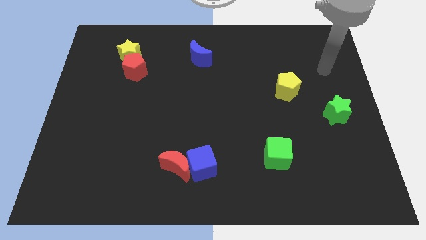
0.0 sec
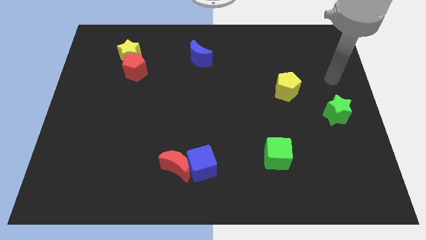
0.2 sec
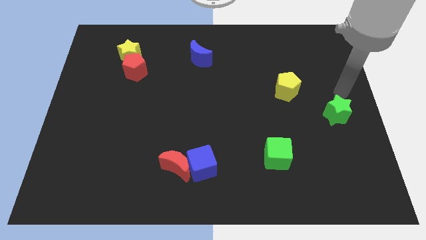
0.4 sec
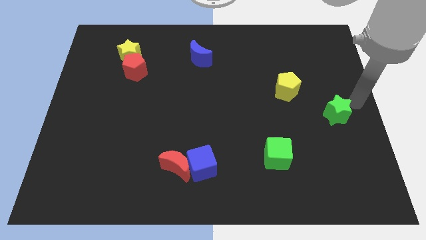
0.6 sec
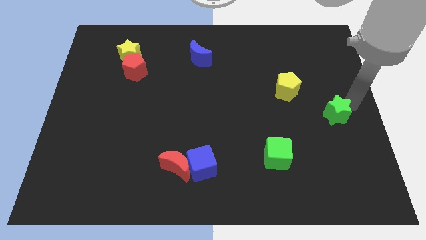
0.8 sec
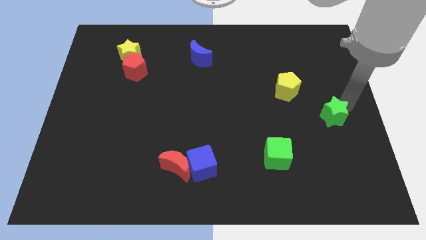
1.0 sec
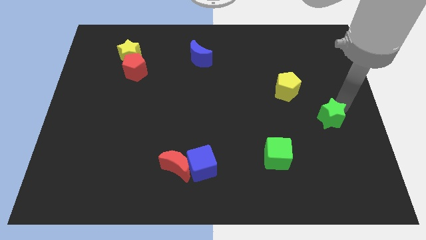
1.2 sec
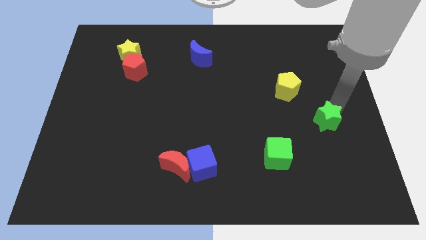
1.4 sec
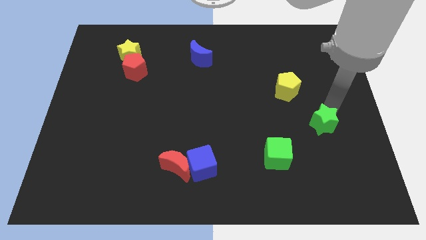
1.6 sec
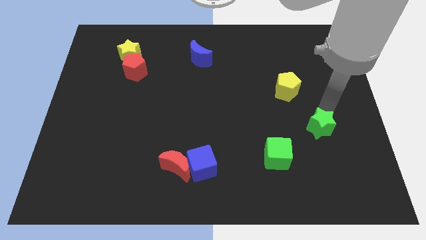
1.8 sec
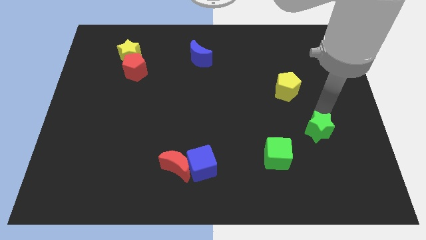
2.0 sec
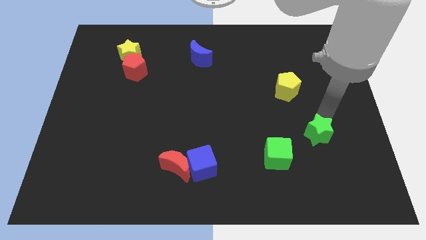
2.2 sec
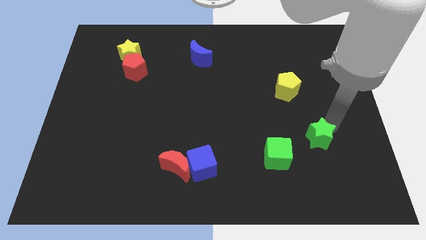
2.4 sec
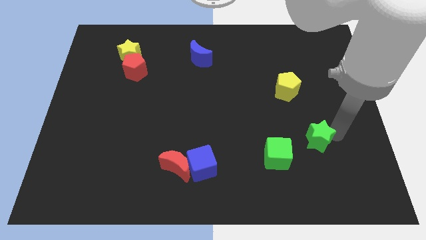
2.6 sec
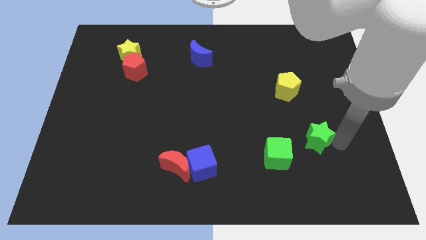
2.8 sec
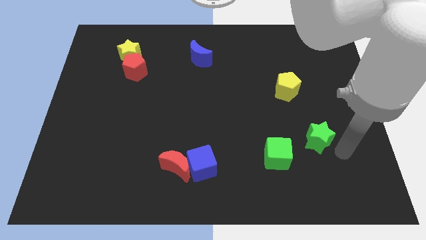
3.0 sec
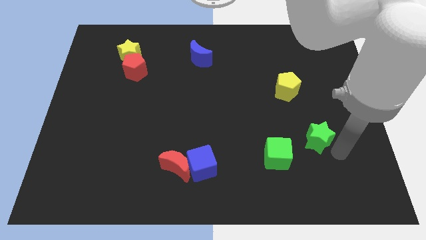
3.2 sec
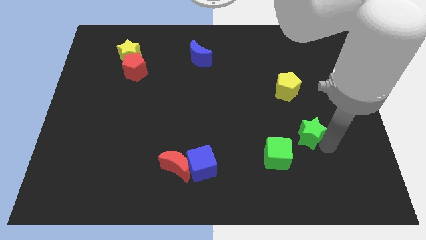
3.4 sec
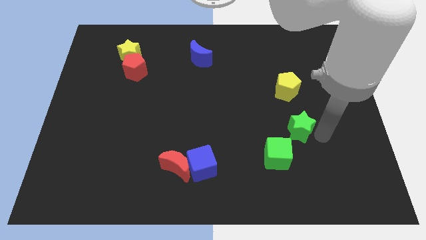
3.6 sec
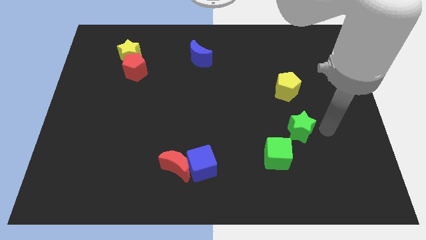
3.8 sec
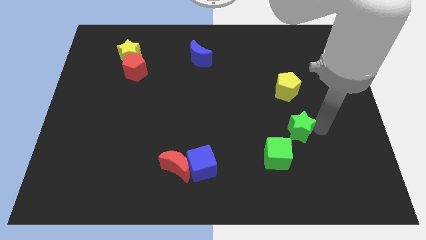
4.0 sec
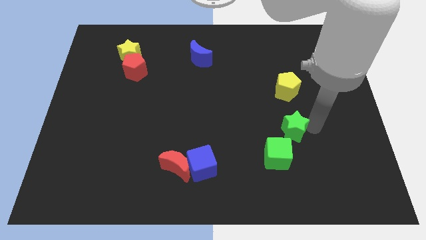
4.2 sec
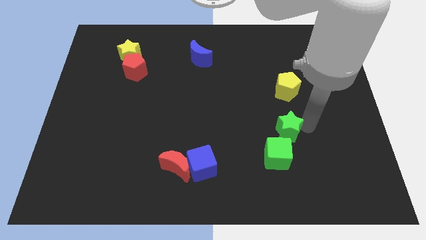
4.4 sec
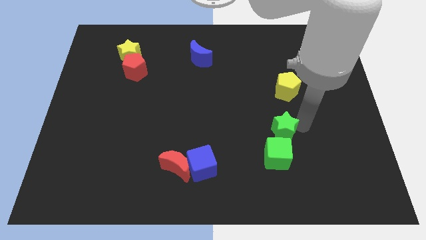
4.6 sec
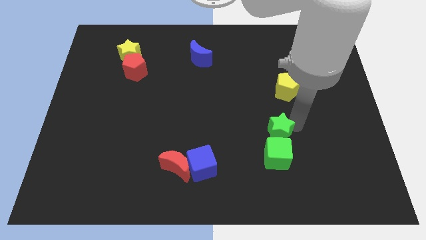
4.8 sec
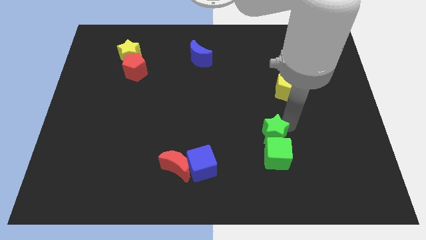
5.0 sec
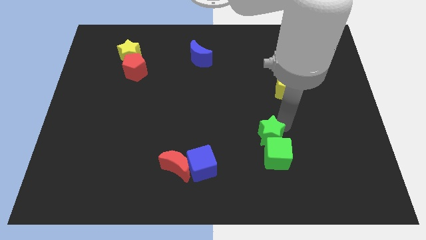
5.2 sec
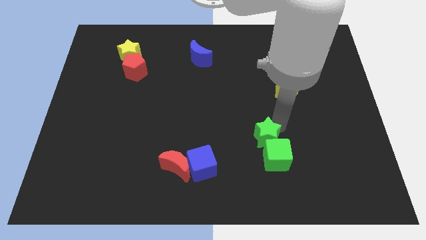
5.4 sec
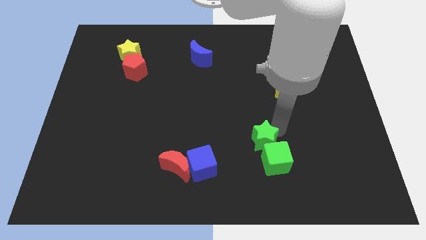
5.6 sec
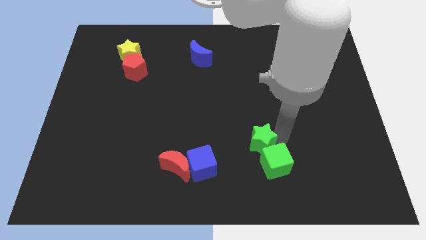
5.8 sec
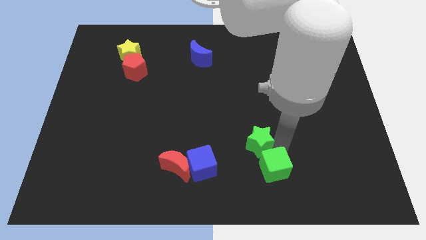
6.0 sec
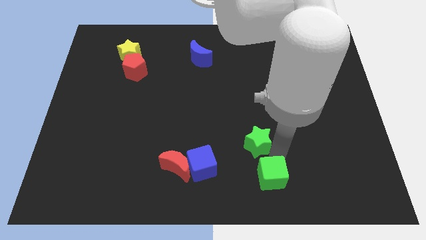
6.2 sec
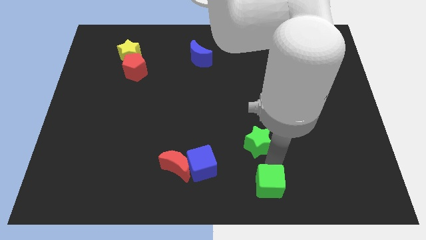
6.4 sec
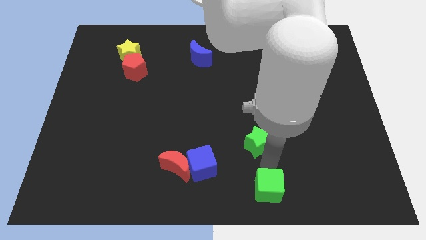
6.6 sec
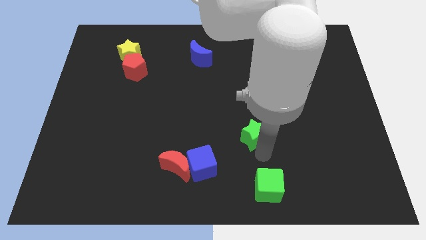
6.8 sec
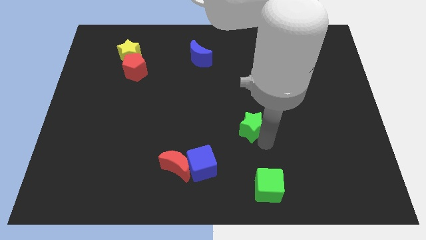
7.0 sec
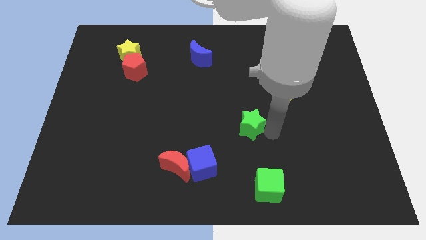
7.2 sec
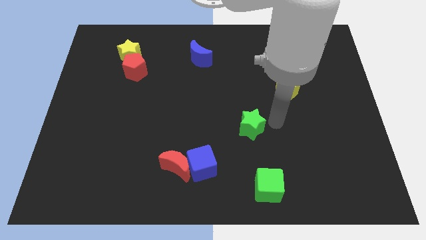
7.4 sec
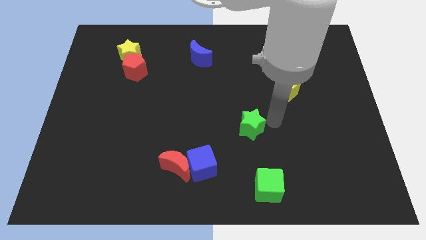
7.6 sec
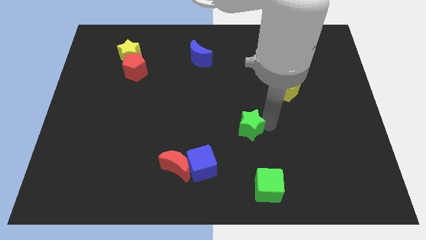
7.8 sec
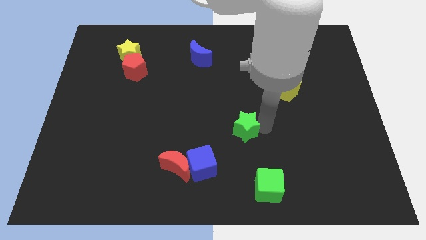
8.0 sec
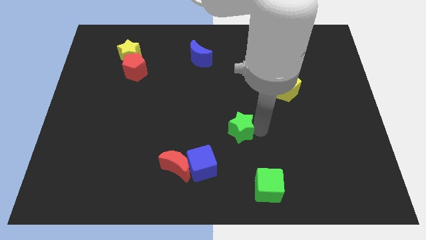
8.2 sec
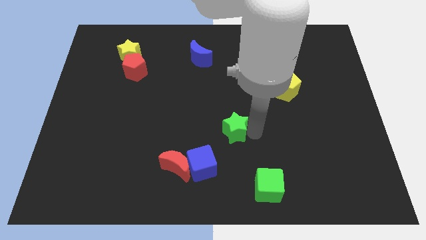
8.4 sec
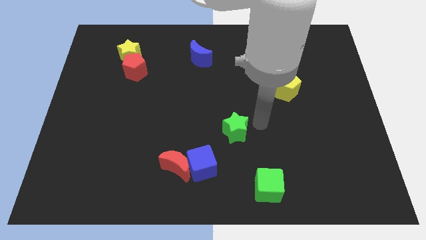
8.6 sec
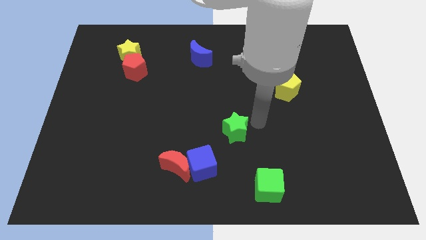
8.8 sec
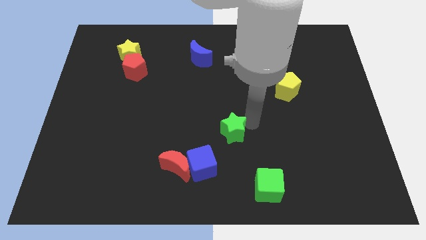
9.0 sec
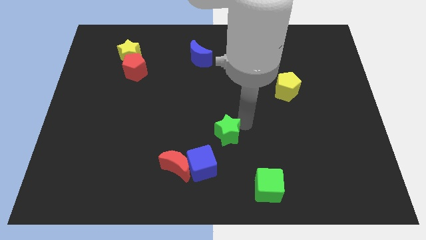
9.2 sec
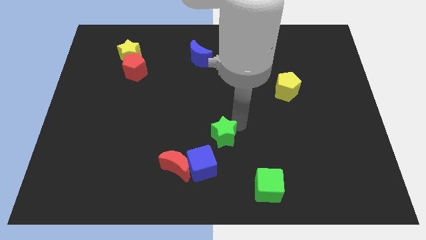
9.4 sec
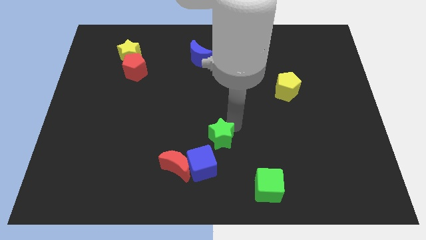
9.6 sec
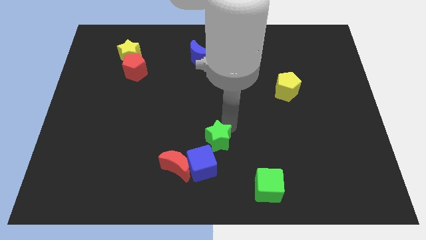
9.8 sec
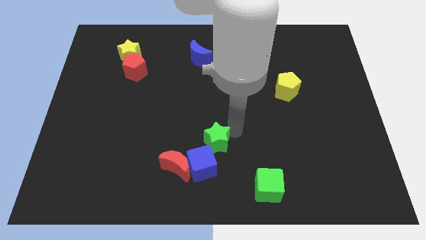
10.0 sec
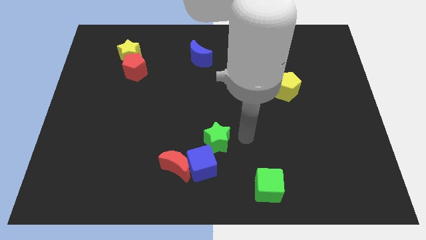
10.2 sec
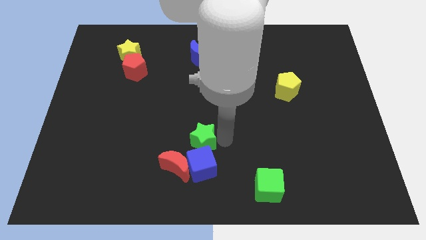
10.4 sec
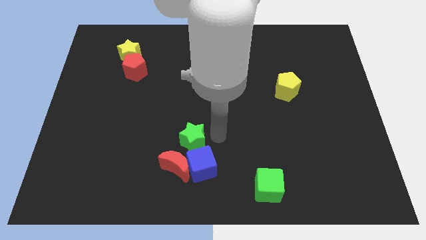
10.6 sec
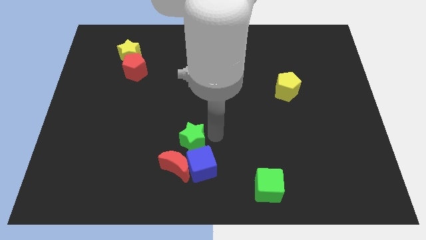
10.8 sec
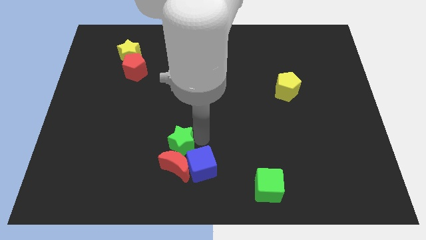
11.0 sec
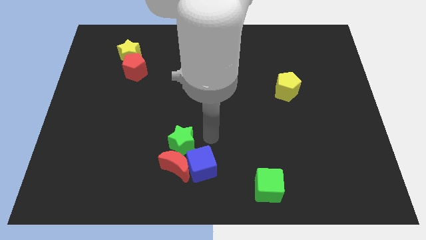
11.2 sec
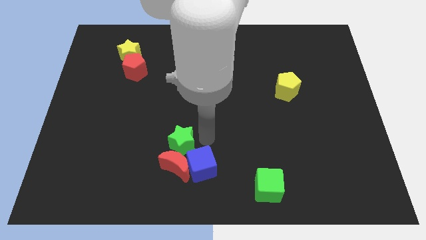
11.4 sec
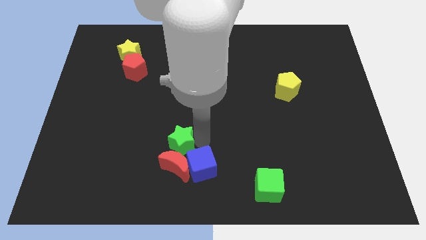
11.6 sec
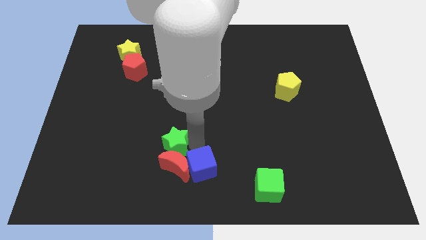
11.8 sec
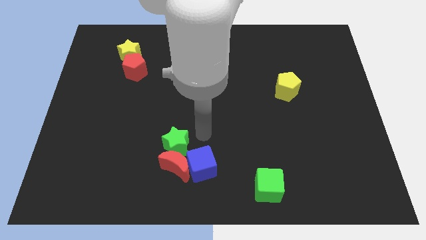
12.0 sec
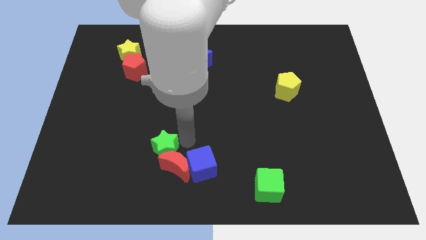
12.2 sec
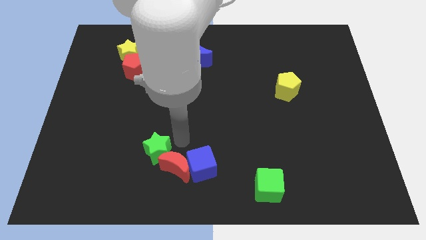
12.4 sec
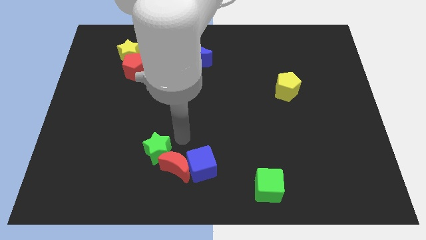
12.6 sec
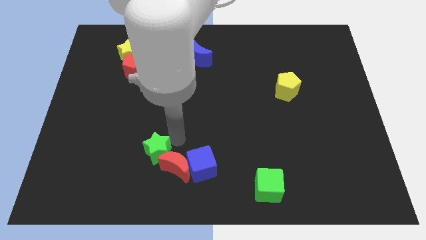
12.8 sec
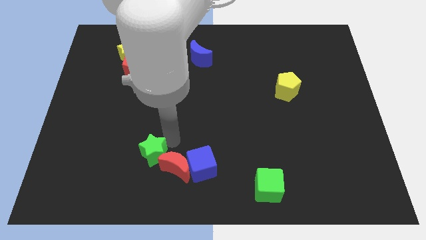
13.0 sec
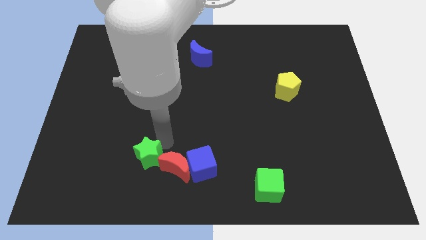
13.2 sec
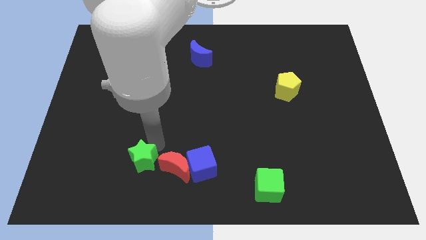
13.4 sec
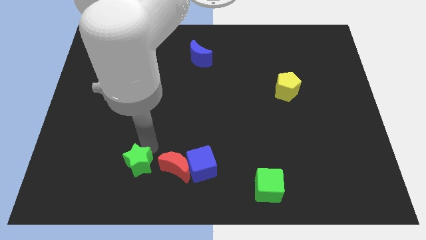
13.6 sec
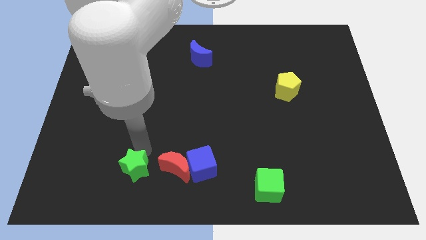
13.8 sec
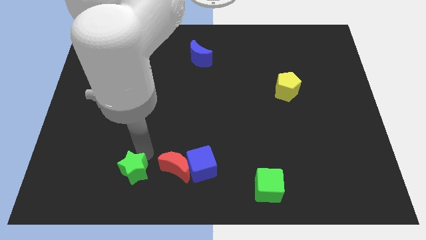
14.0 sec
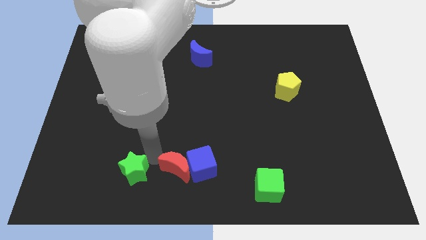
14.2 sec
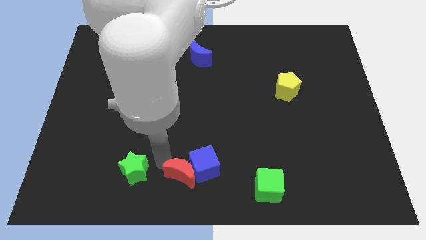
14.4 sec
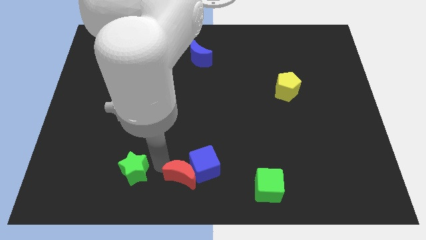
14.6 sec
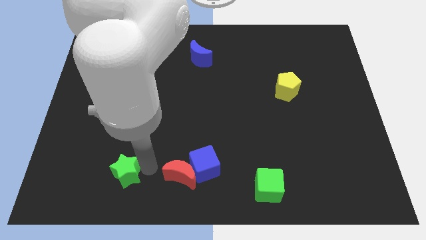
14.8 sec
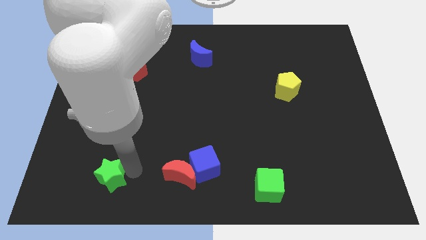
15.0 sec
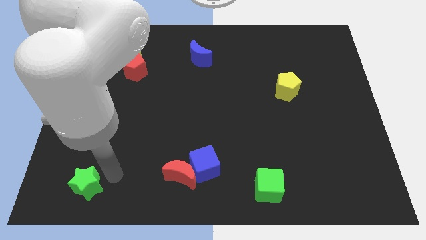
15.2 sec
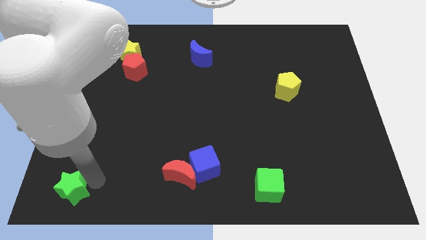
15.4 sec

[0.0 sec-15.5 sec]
move the green star to the bottom left of the board
